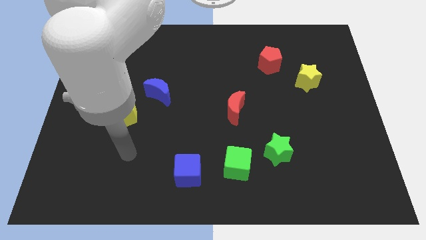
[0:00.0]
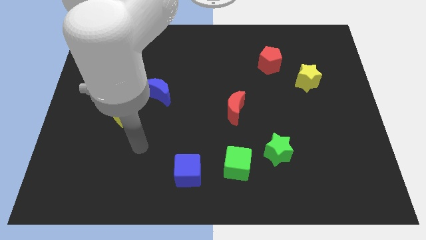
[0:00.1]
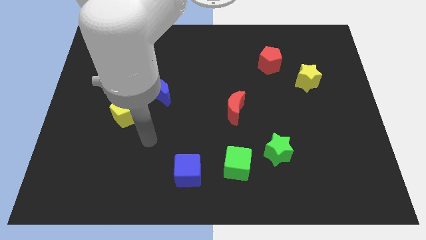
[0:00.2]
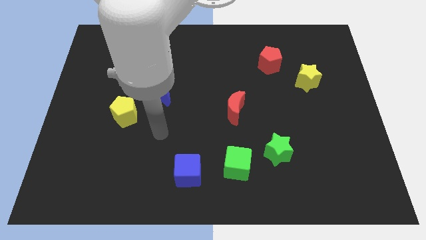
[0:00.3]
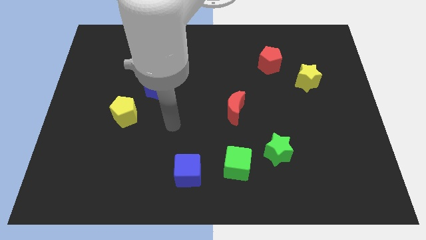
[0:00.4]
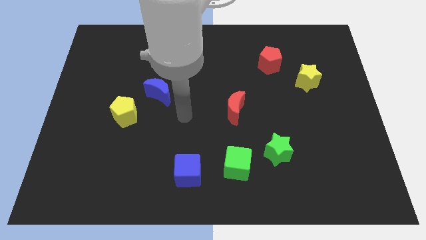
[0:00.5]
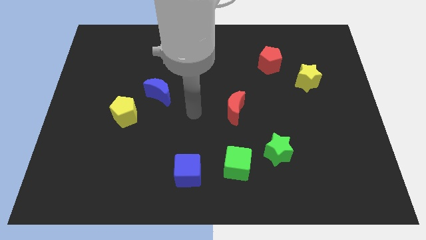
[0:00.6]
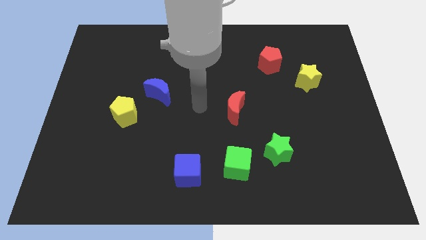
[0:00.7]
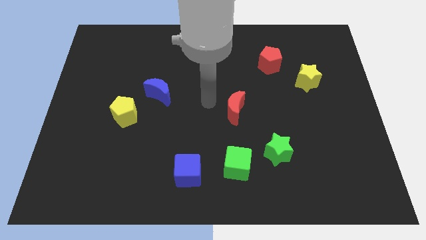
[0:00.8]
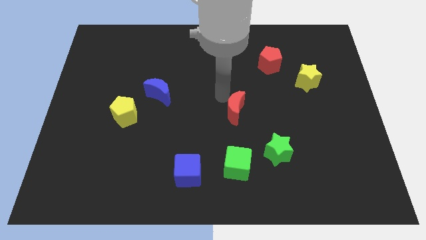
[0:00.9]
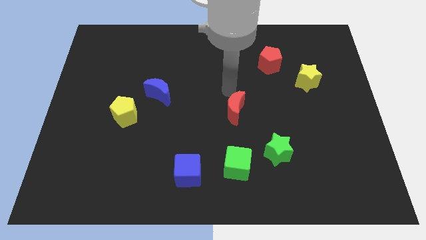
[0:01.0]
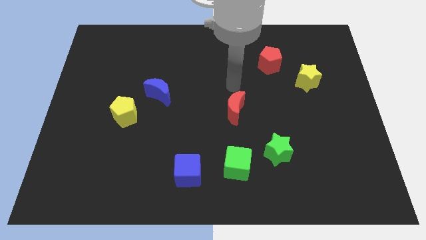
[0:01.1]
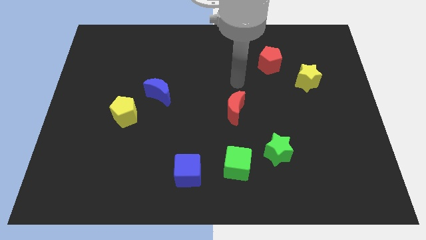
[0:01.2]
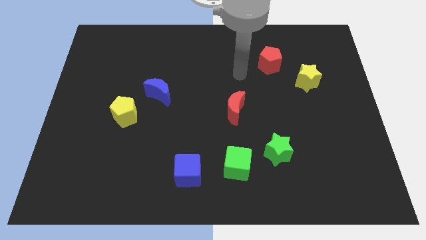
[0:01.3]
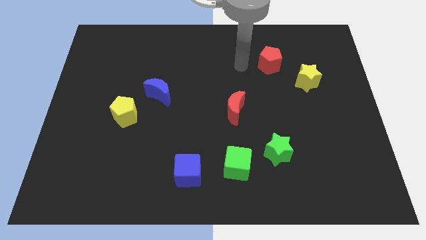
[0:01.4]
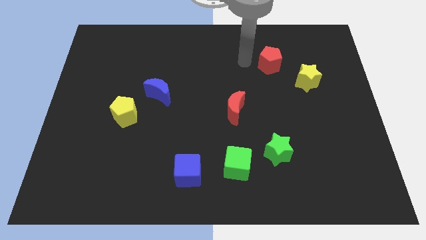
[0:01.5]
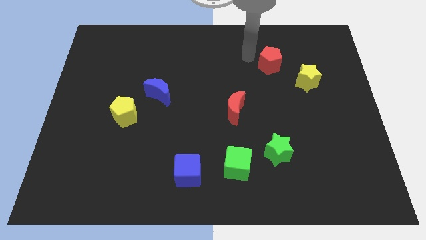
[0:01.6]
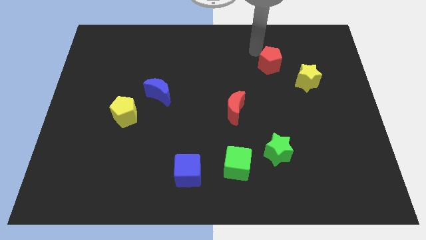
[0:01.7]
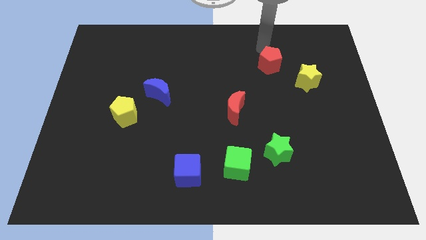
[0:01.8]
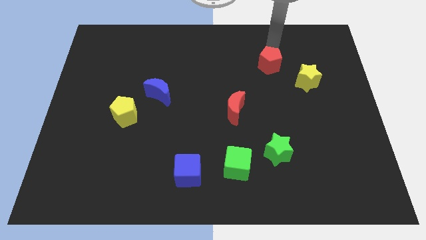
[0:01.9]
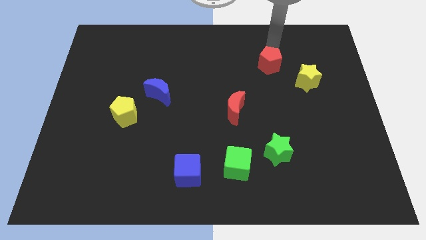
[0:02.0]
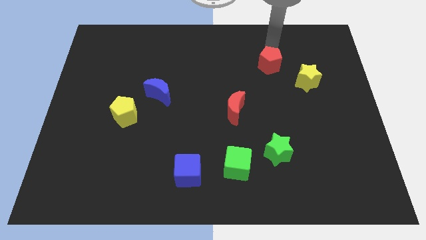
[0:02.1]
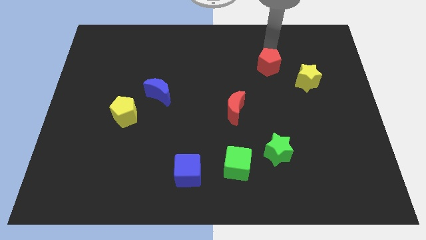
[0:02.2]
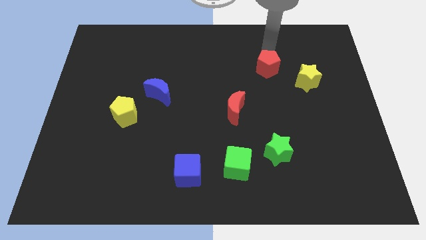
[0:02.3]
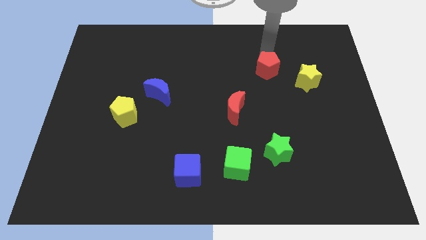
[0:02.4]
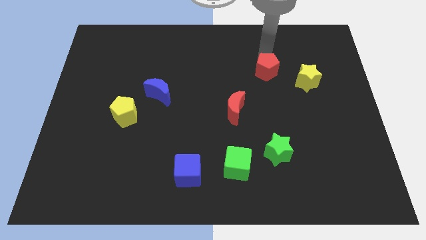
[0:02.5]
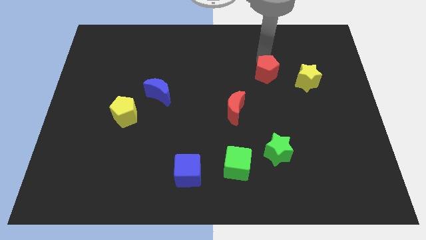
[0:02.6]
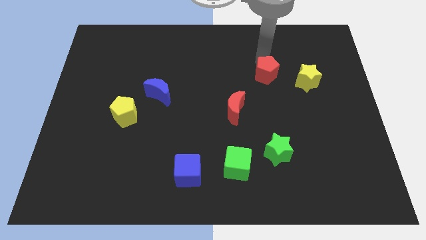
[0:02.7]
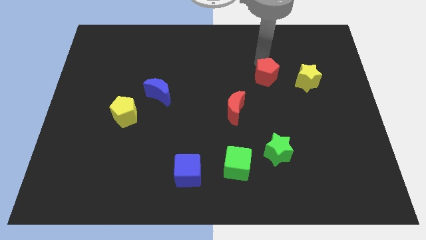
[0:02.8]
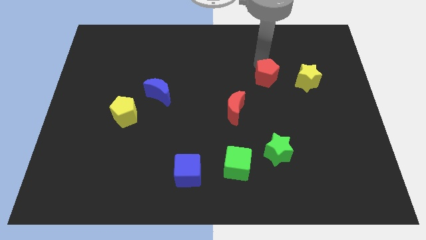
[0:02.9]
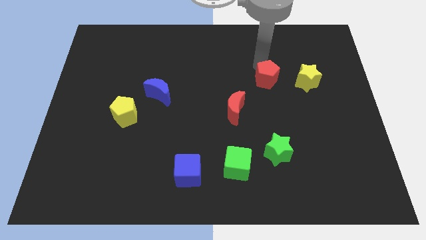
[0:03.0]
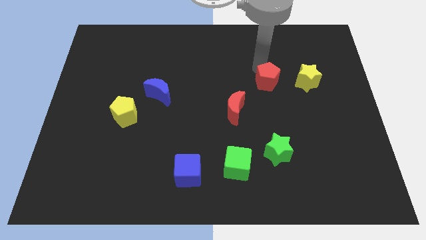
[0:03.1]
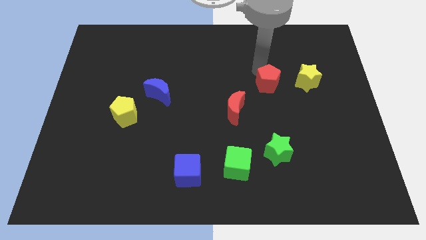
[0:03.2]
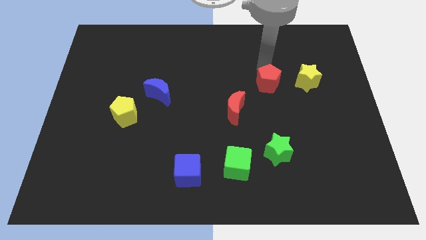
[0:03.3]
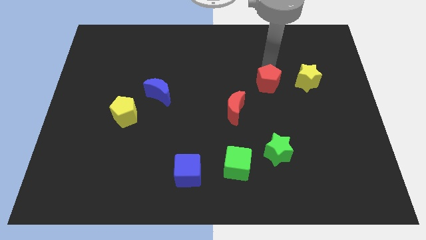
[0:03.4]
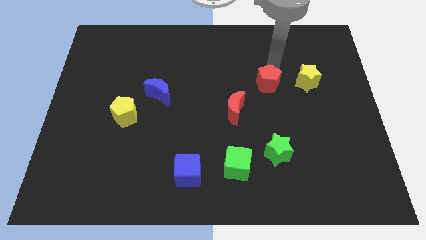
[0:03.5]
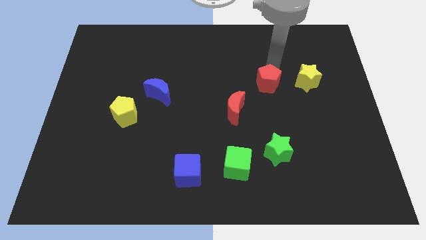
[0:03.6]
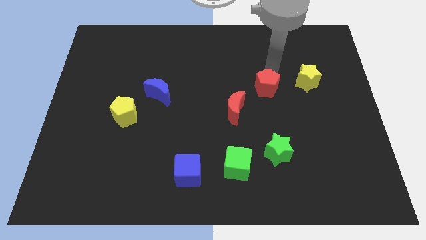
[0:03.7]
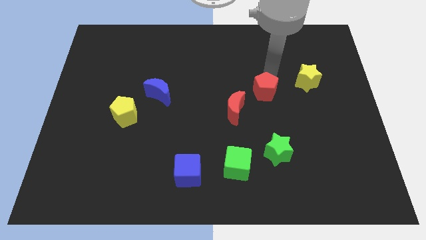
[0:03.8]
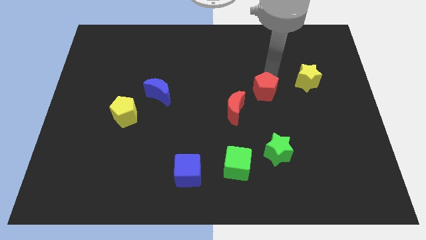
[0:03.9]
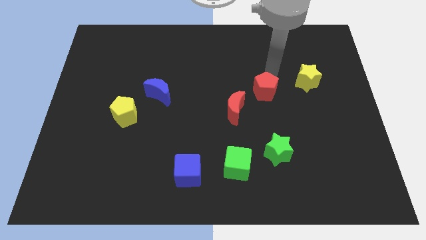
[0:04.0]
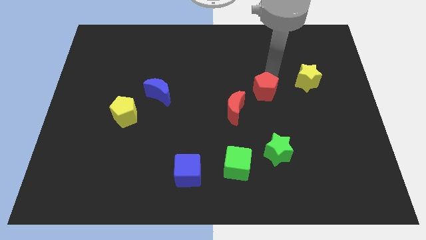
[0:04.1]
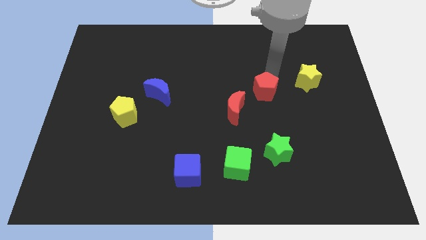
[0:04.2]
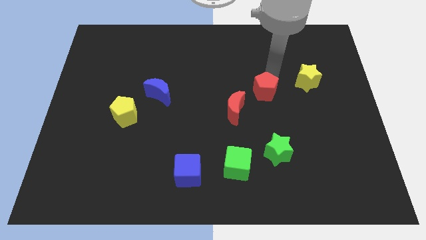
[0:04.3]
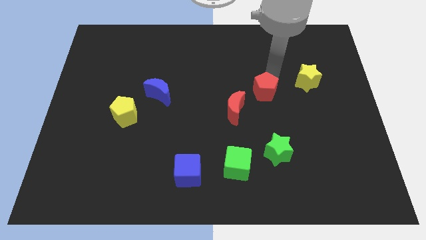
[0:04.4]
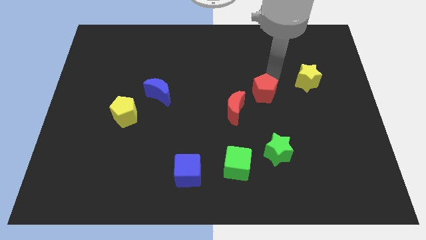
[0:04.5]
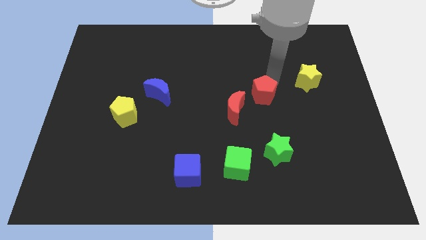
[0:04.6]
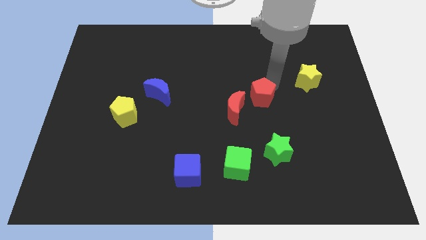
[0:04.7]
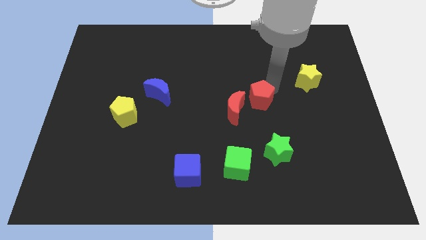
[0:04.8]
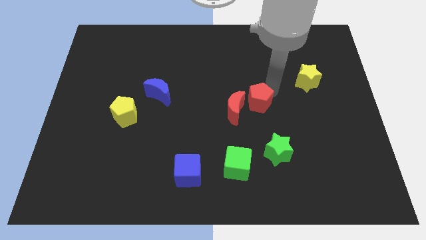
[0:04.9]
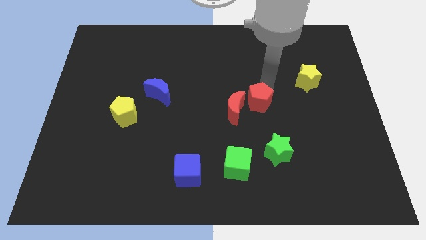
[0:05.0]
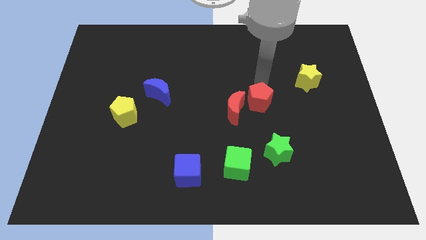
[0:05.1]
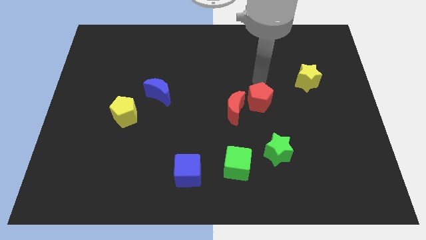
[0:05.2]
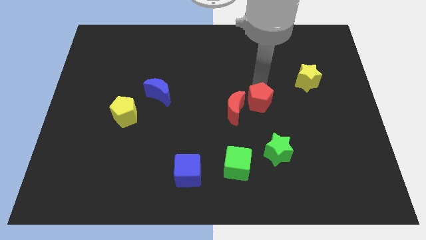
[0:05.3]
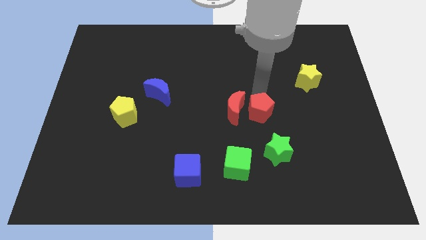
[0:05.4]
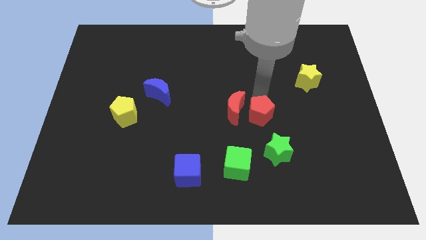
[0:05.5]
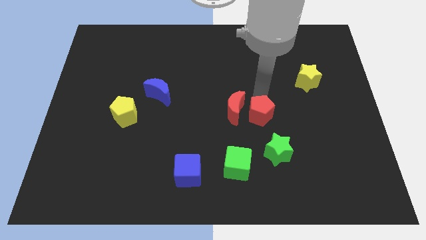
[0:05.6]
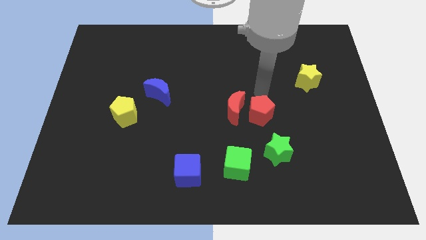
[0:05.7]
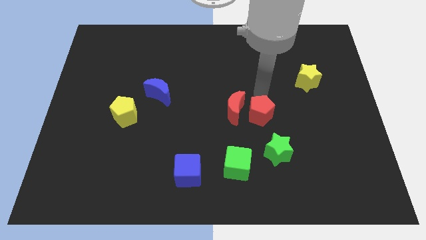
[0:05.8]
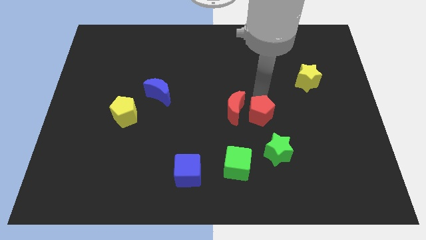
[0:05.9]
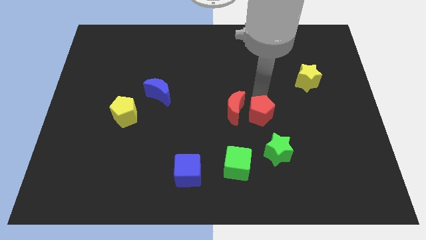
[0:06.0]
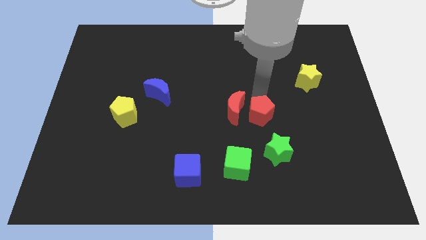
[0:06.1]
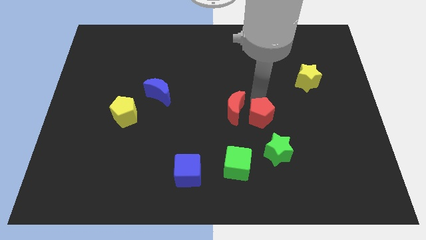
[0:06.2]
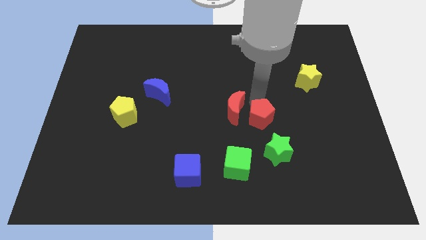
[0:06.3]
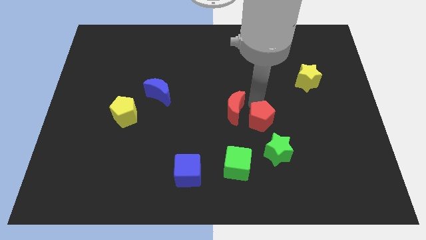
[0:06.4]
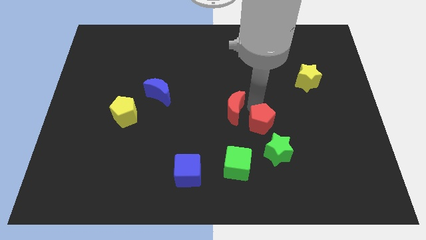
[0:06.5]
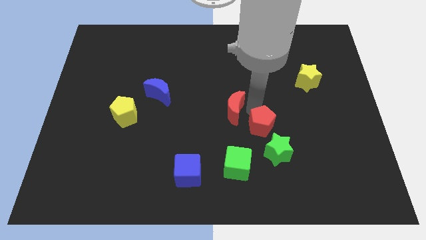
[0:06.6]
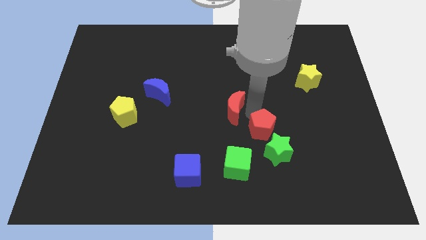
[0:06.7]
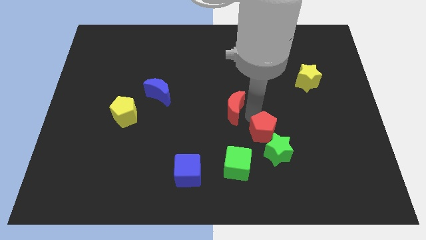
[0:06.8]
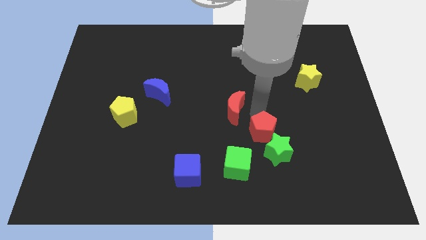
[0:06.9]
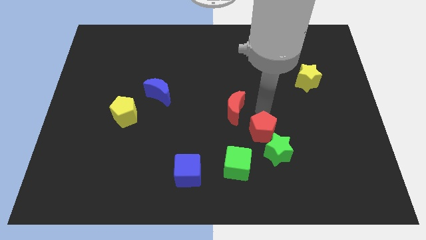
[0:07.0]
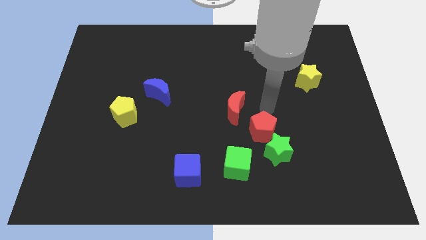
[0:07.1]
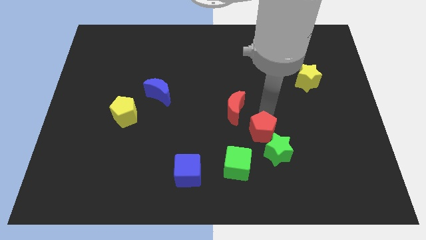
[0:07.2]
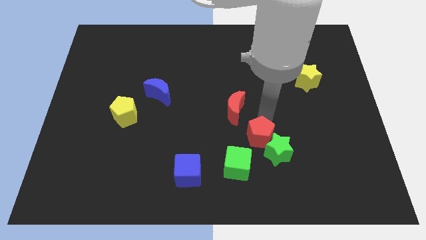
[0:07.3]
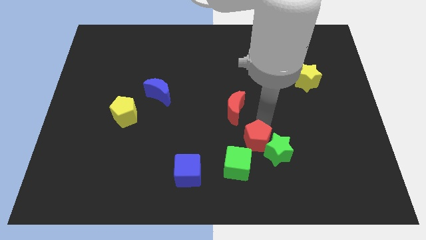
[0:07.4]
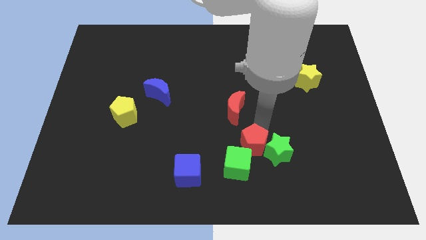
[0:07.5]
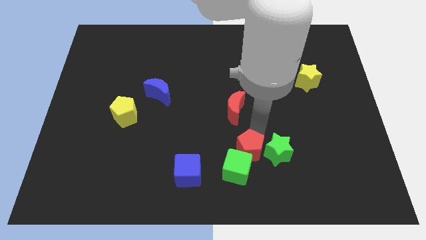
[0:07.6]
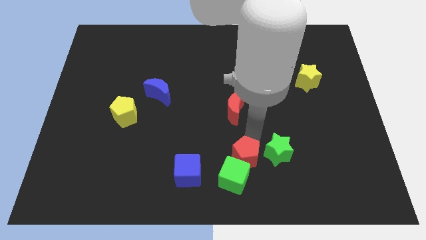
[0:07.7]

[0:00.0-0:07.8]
push the red pentagon to the right side of the blue cube
